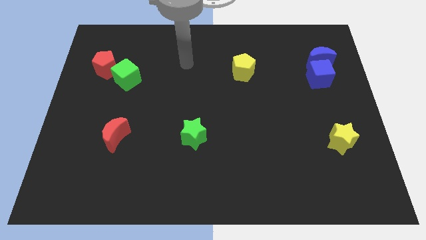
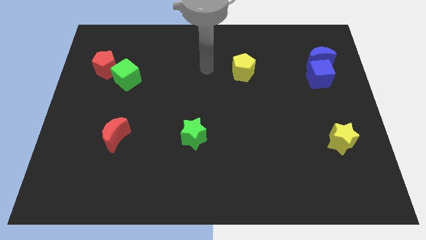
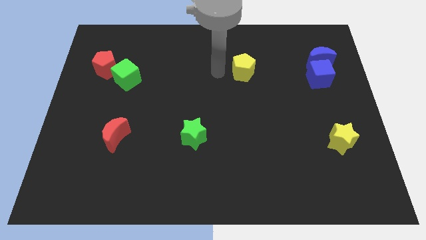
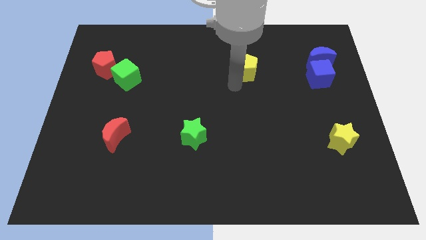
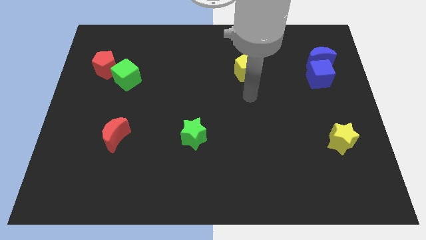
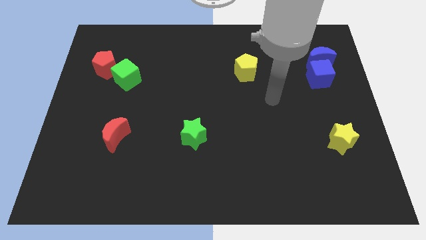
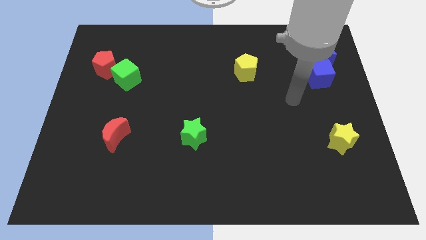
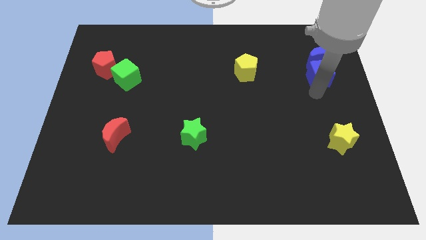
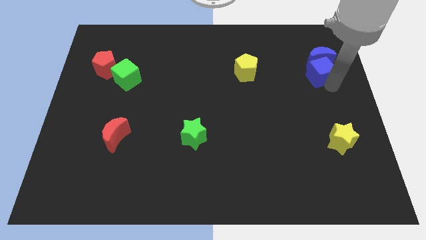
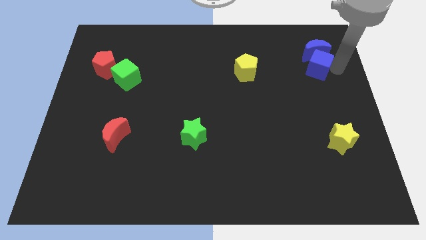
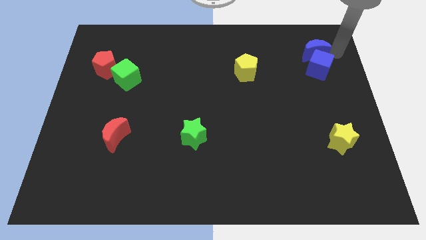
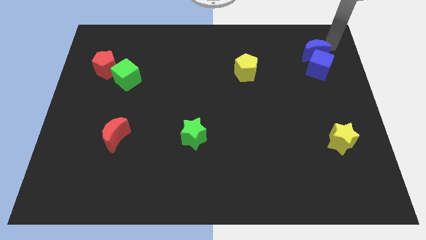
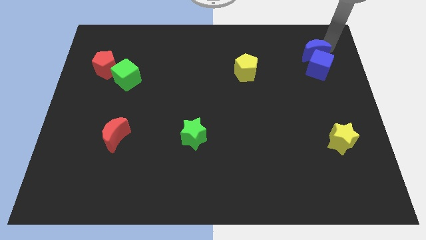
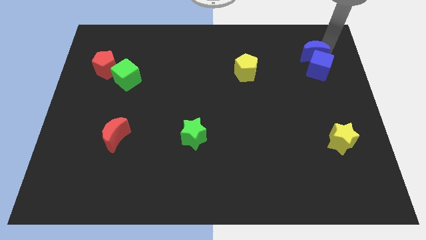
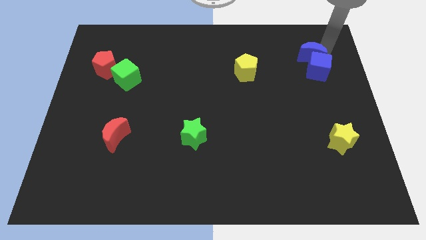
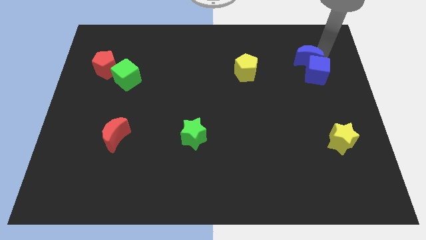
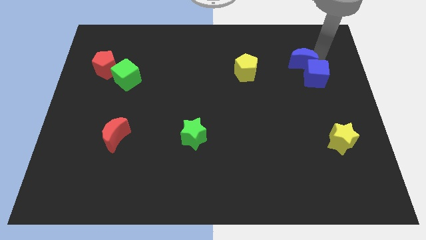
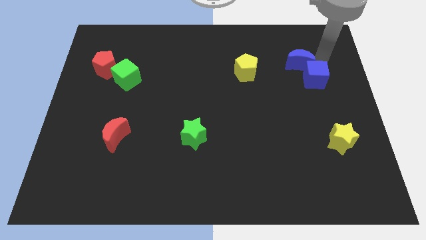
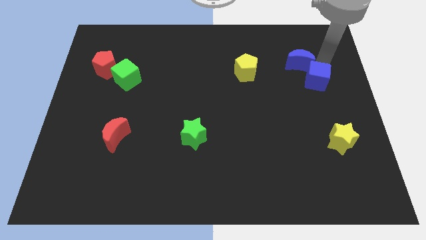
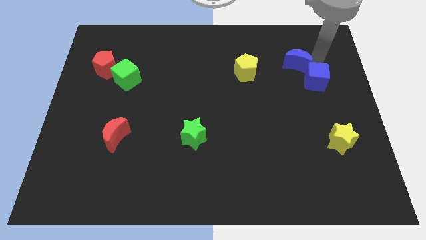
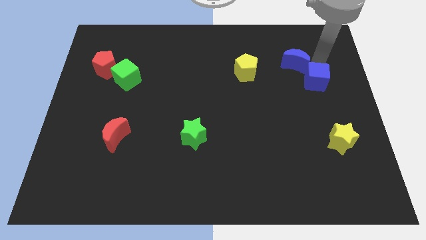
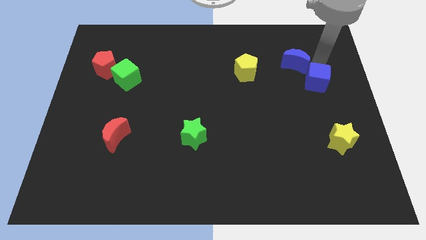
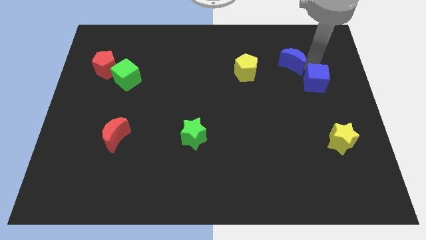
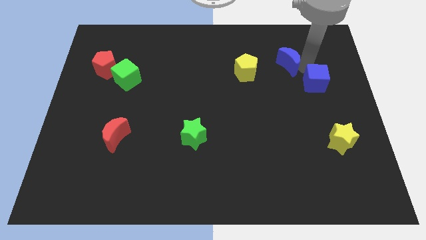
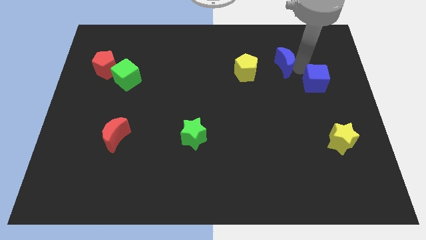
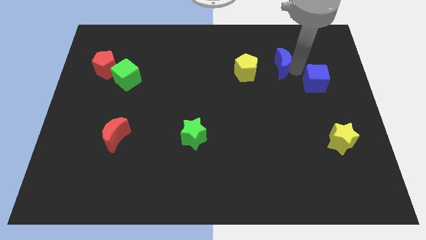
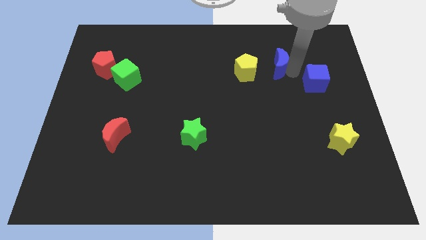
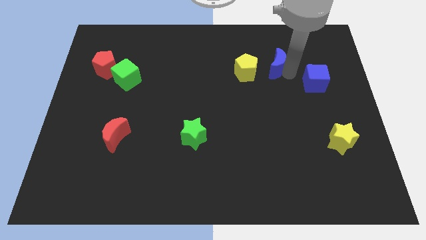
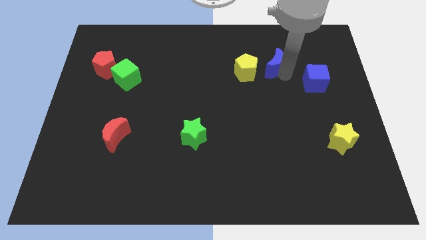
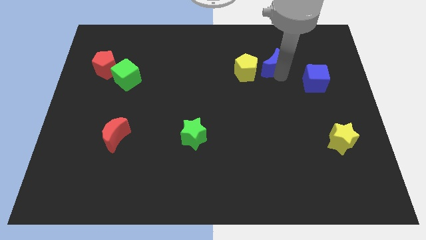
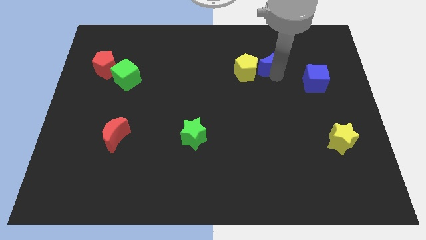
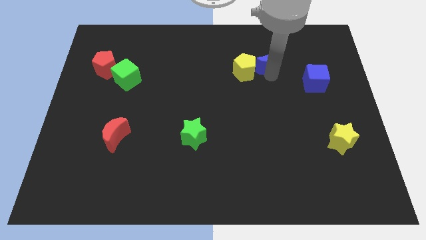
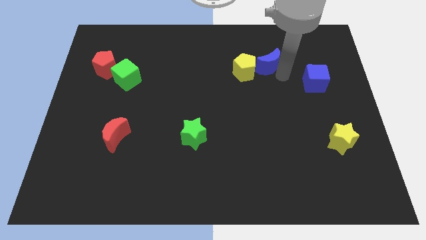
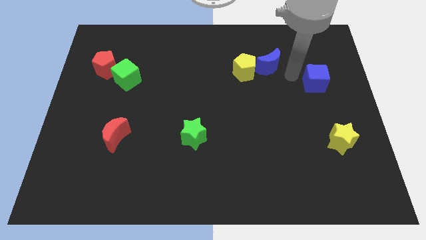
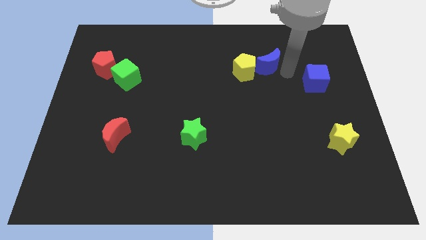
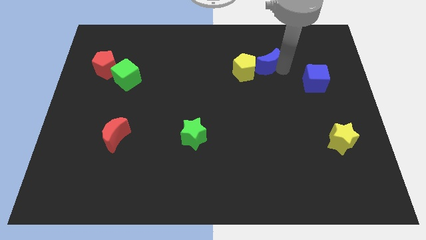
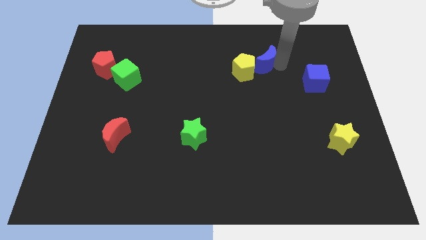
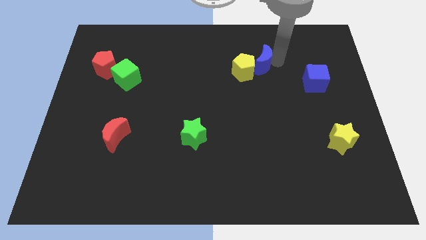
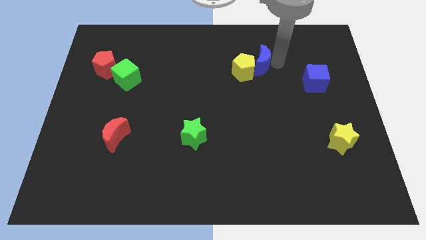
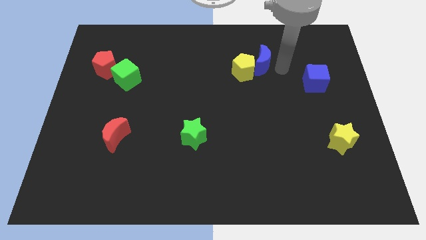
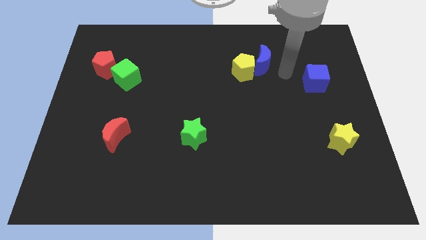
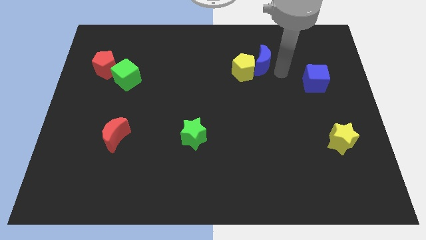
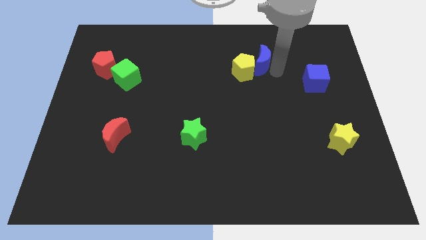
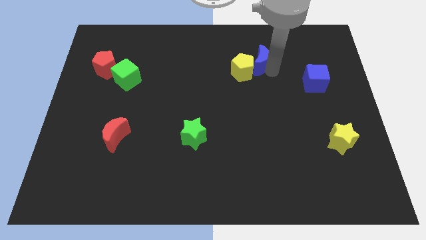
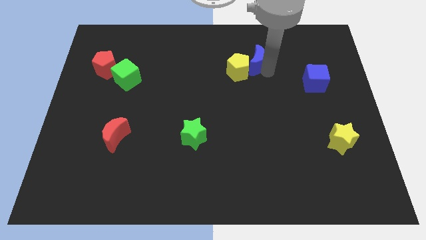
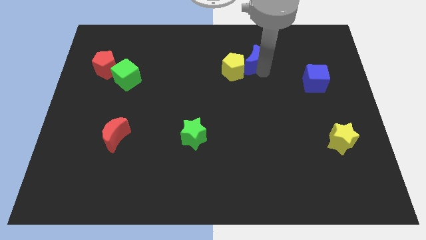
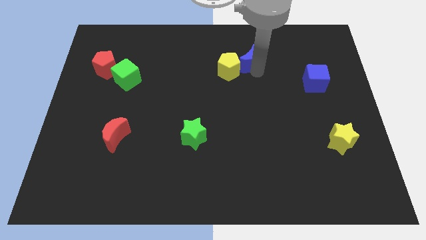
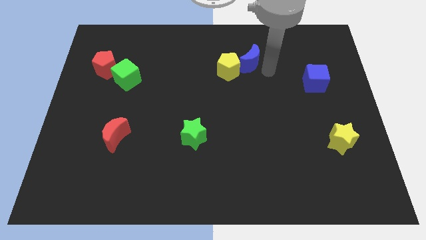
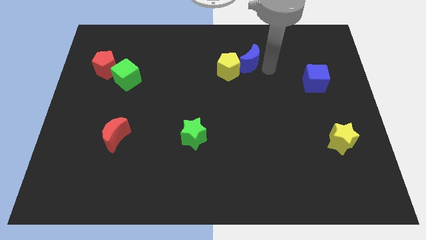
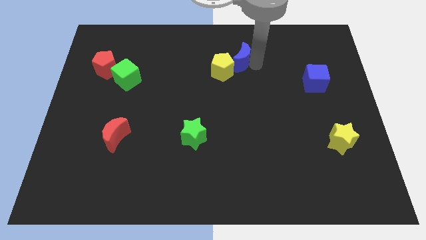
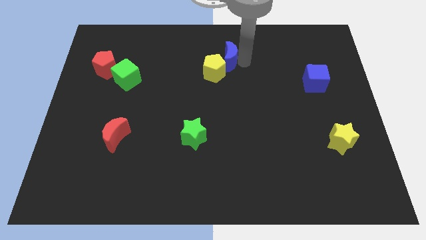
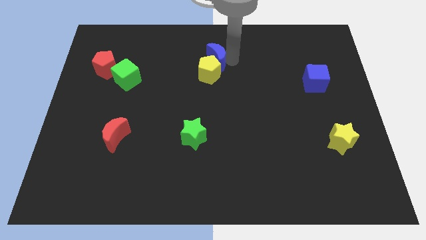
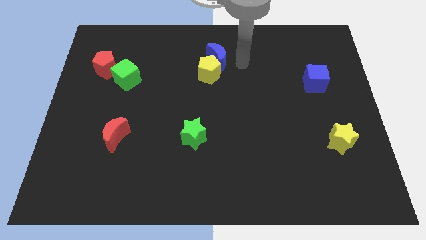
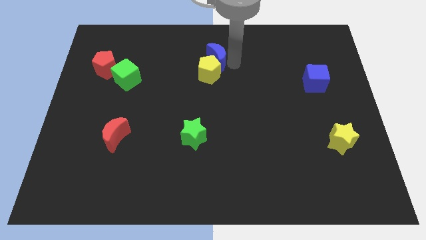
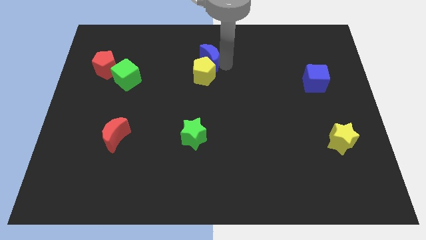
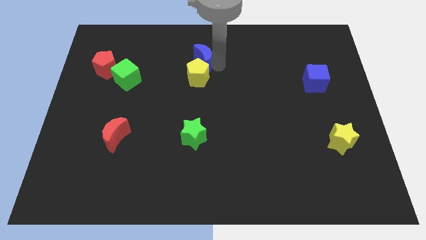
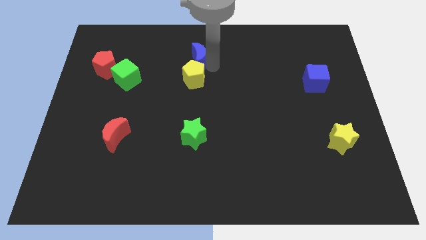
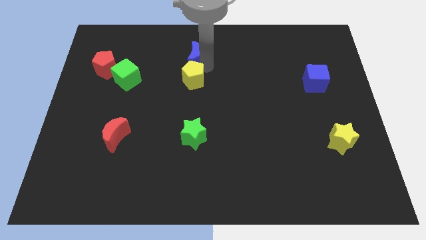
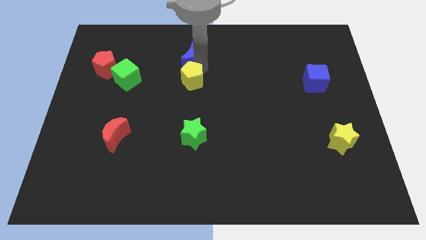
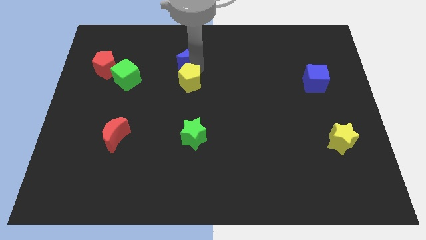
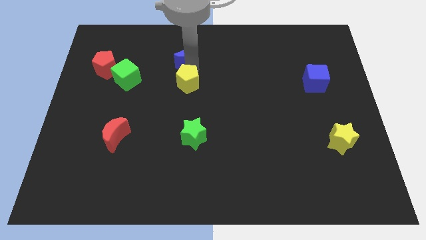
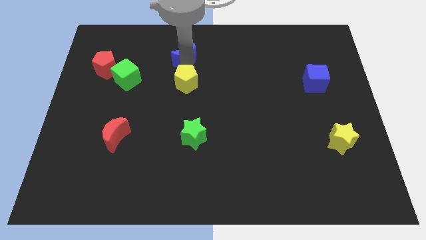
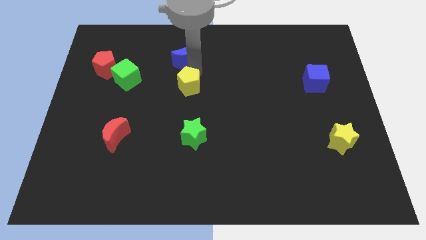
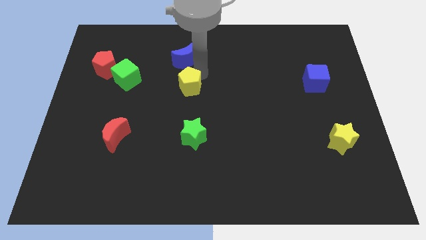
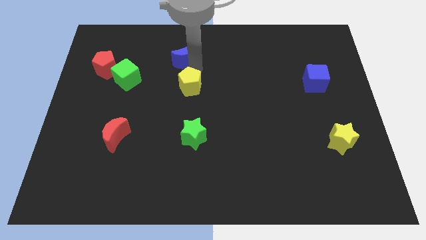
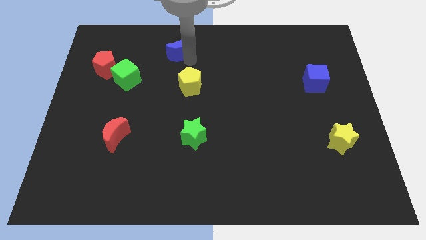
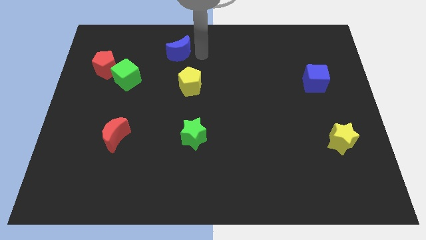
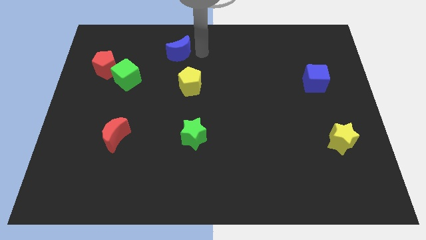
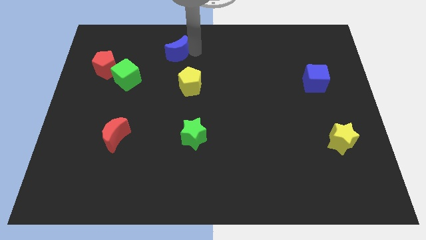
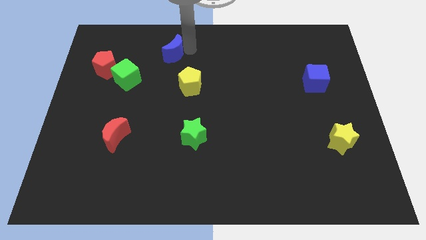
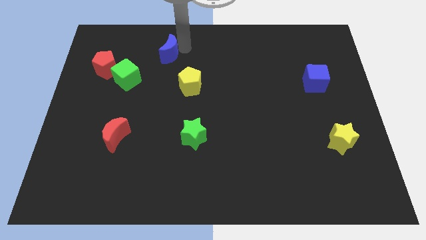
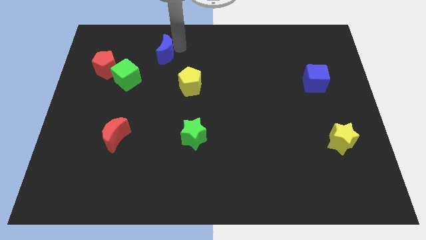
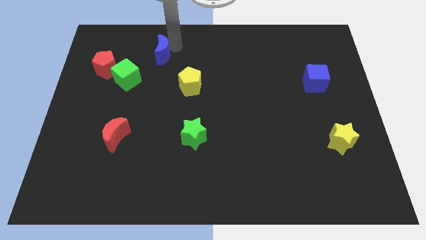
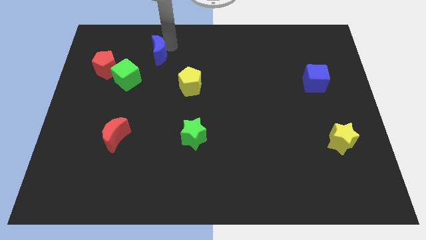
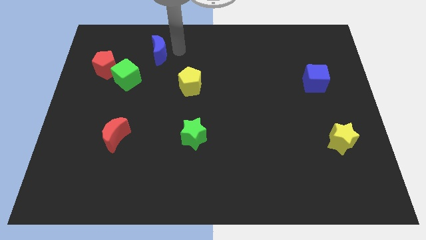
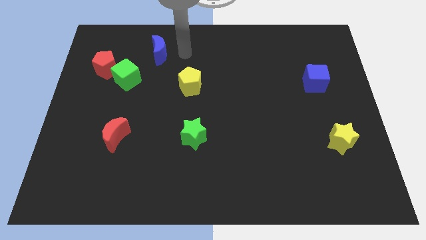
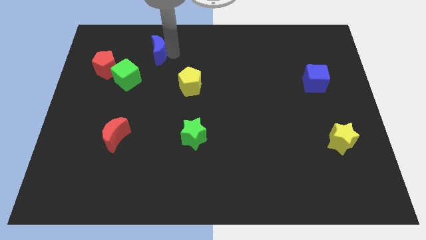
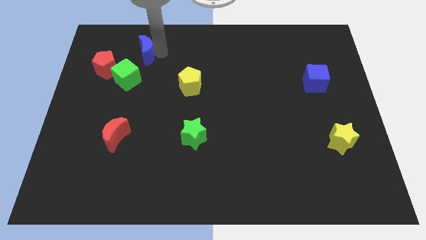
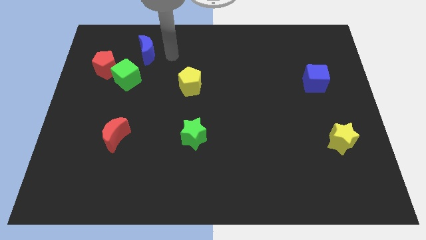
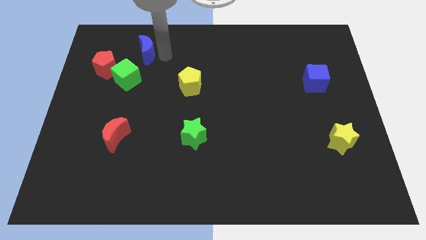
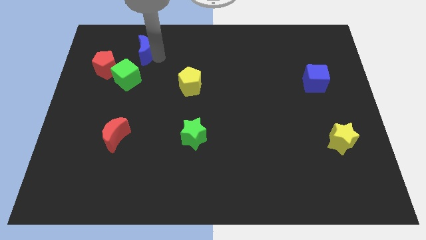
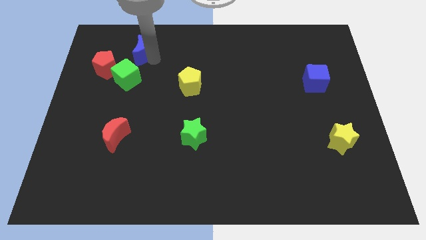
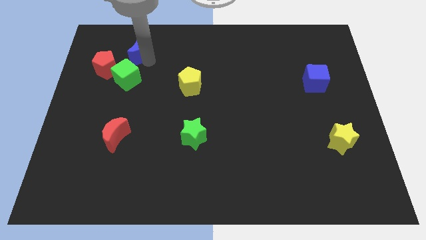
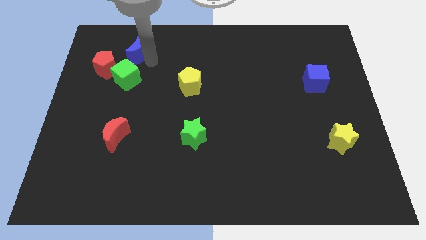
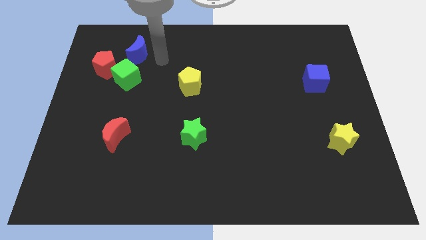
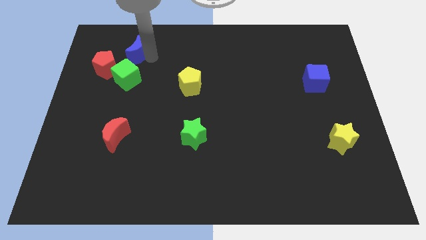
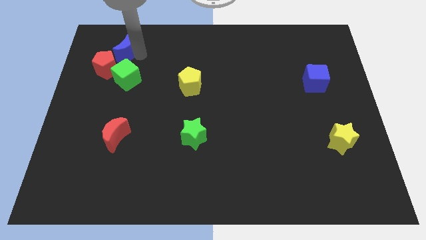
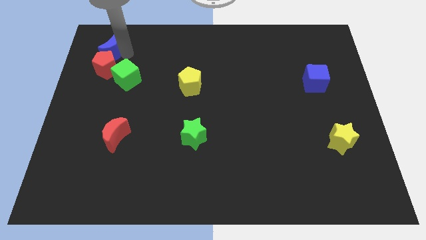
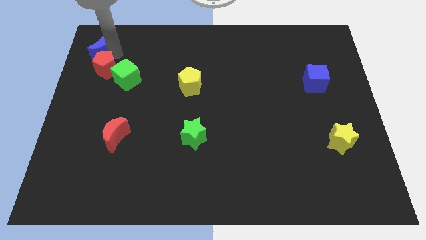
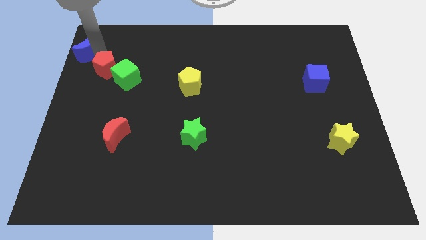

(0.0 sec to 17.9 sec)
move the blue moon to the upper left corner
